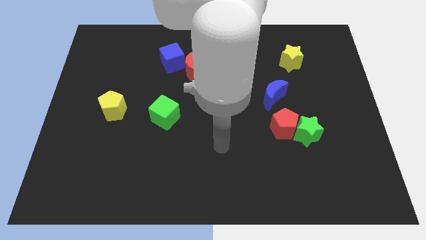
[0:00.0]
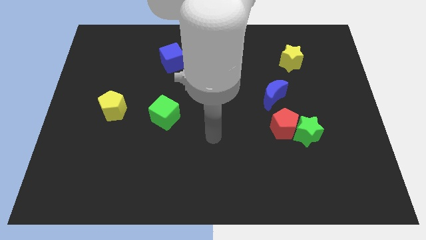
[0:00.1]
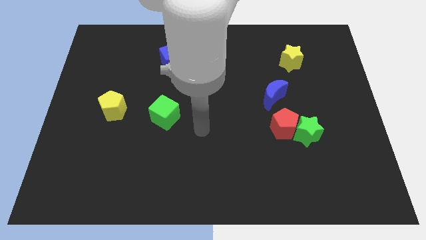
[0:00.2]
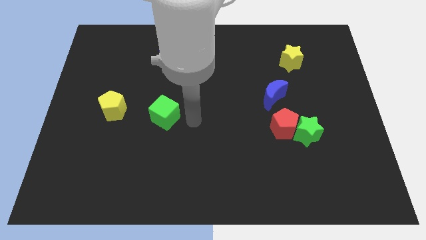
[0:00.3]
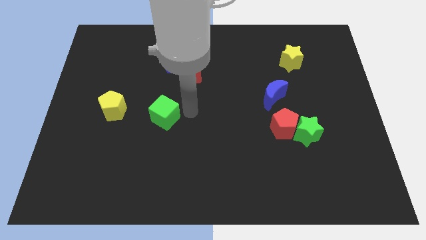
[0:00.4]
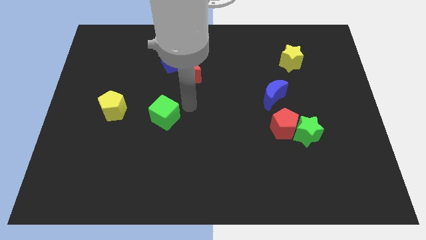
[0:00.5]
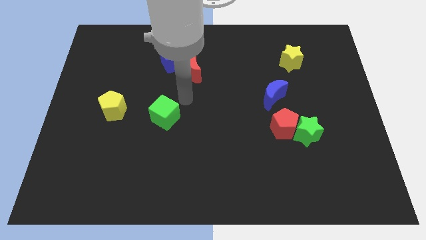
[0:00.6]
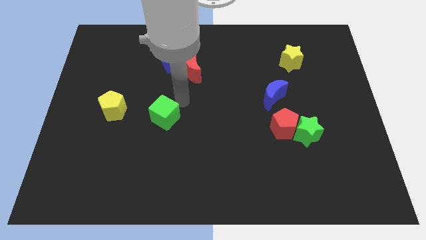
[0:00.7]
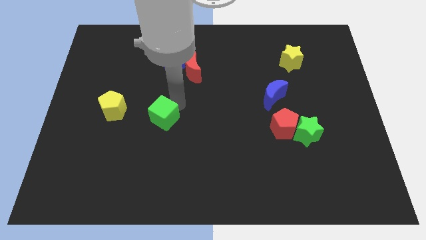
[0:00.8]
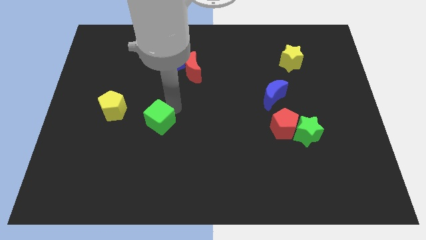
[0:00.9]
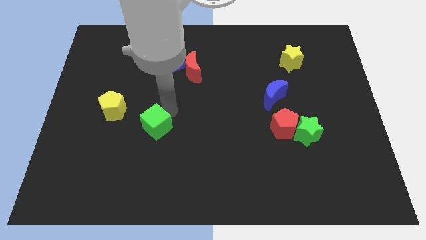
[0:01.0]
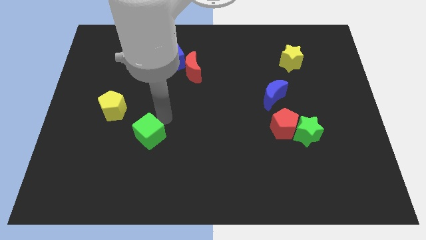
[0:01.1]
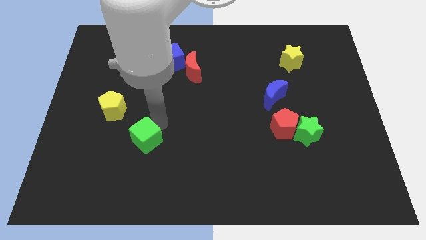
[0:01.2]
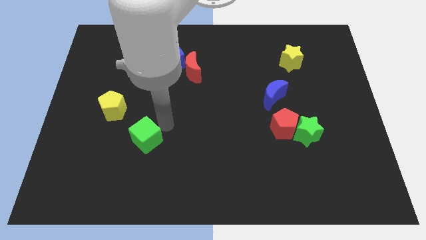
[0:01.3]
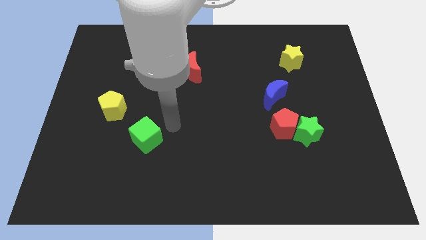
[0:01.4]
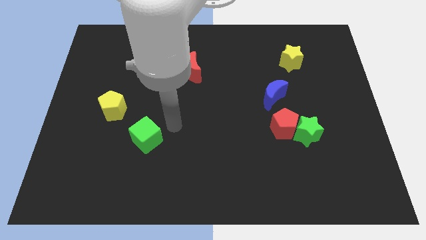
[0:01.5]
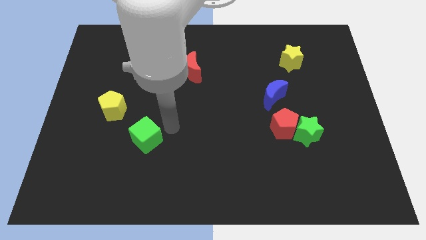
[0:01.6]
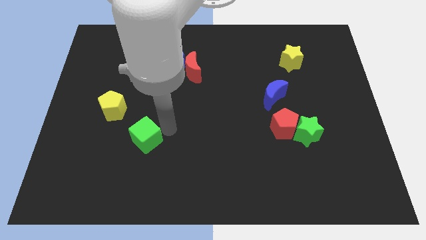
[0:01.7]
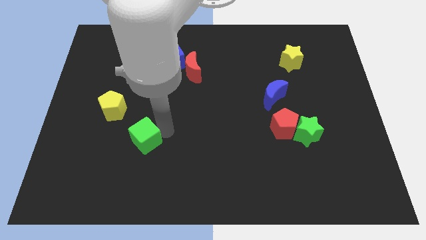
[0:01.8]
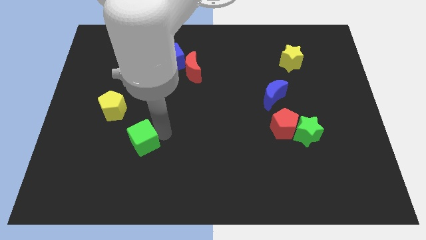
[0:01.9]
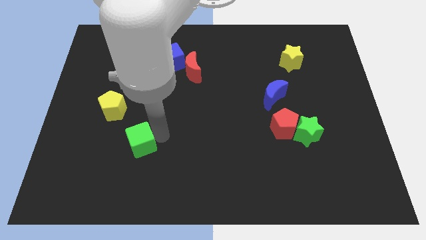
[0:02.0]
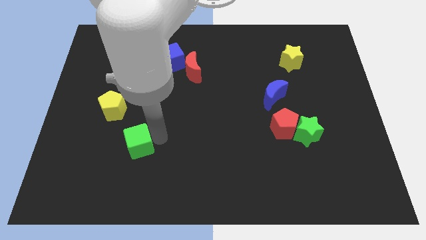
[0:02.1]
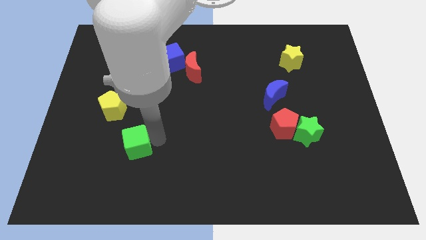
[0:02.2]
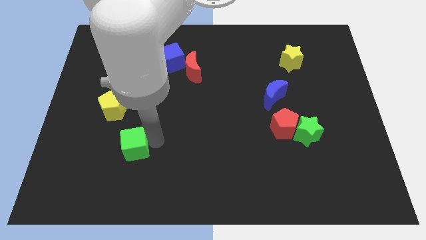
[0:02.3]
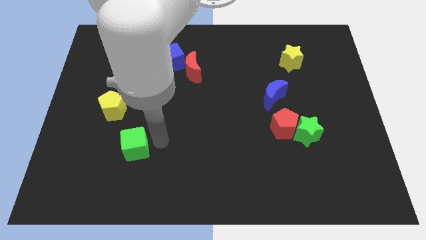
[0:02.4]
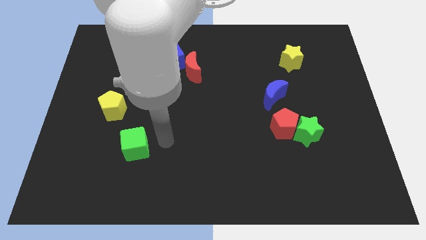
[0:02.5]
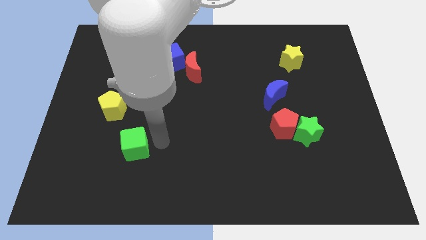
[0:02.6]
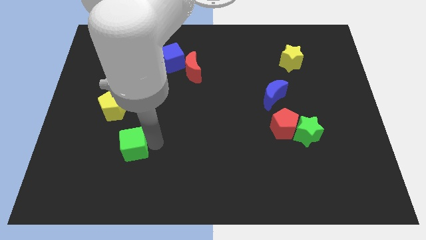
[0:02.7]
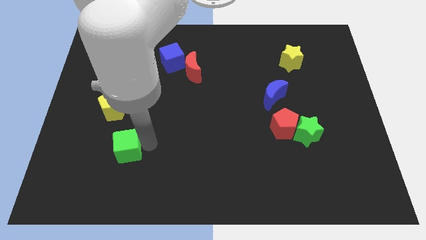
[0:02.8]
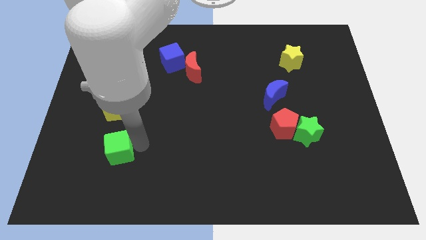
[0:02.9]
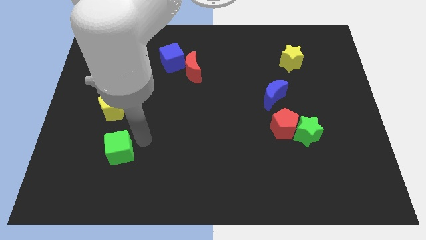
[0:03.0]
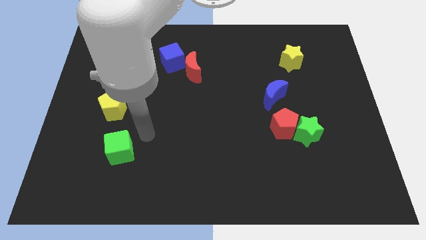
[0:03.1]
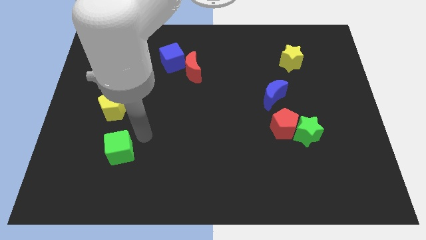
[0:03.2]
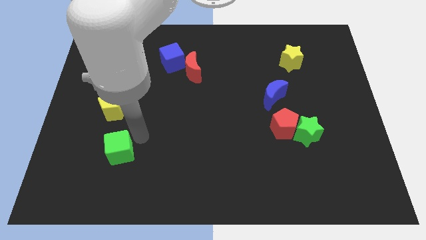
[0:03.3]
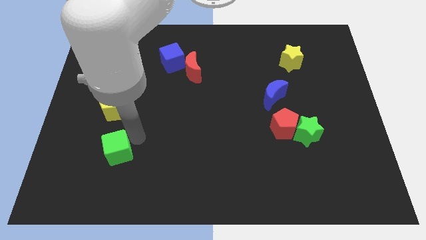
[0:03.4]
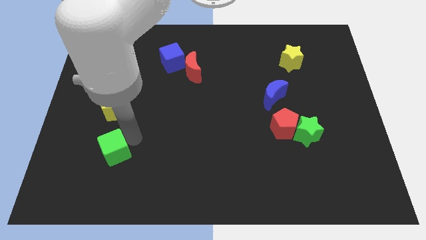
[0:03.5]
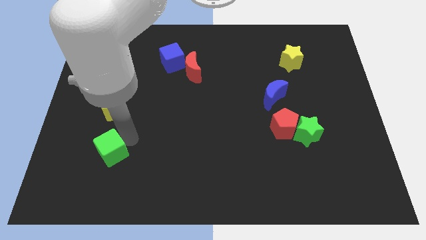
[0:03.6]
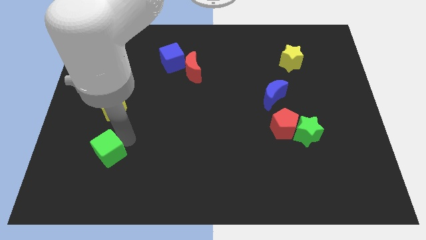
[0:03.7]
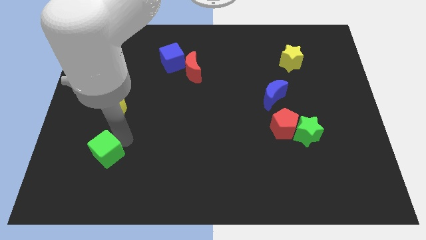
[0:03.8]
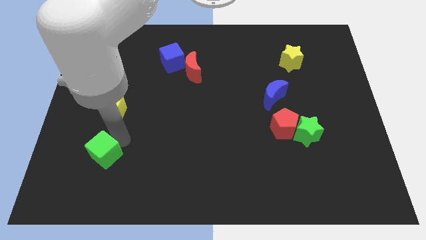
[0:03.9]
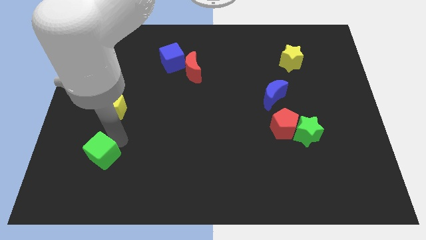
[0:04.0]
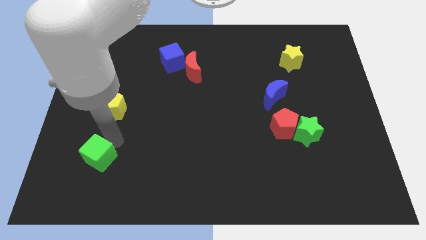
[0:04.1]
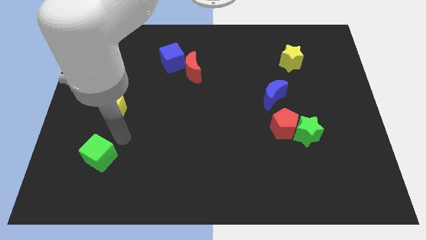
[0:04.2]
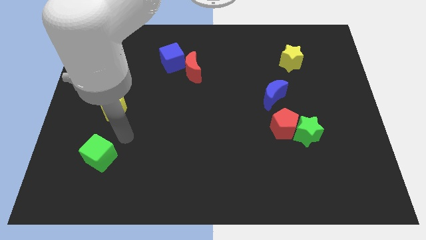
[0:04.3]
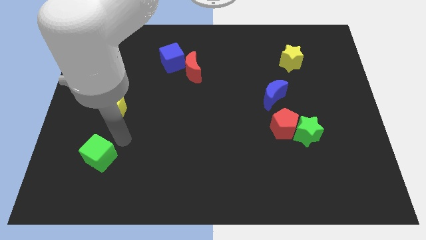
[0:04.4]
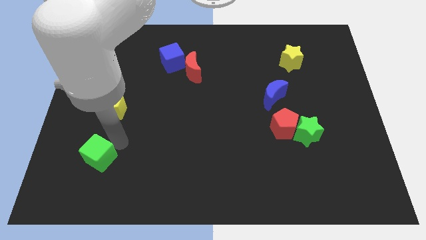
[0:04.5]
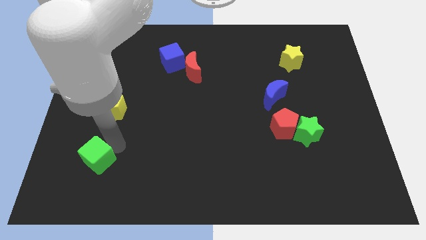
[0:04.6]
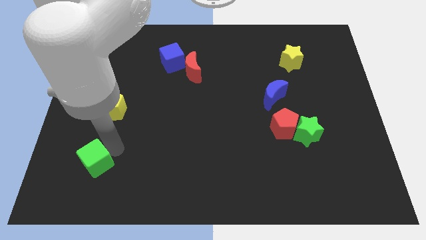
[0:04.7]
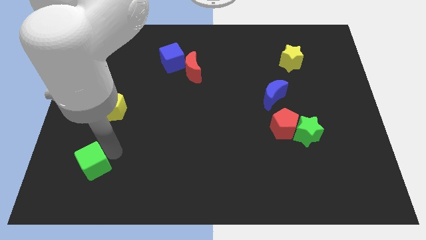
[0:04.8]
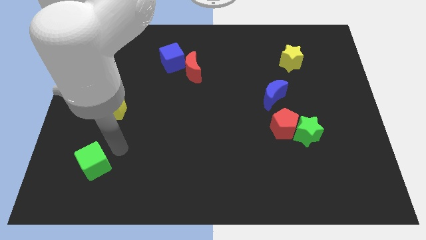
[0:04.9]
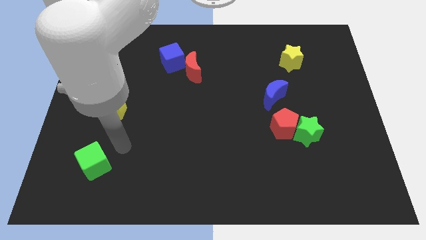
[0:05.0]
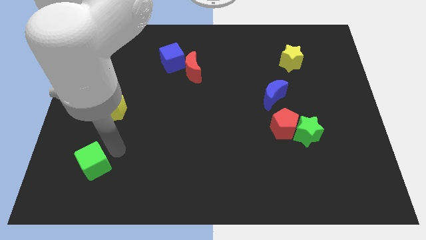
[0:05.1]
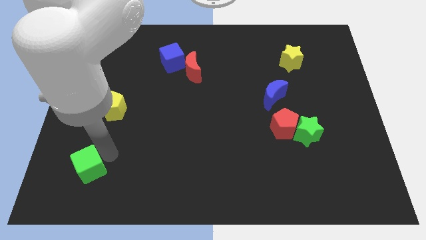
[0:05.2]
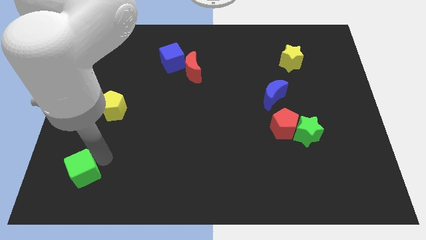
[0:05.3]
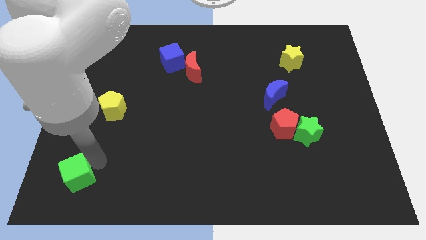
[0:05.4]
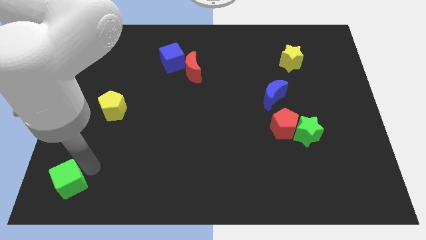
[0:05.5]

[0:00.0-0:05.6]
move the green cube to the bottom left of the board
